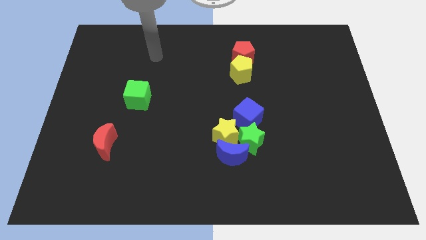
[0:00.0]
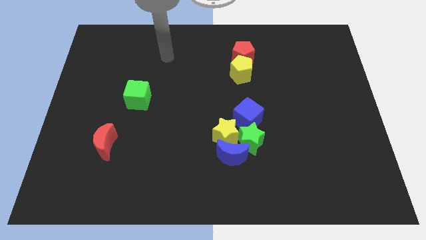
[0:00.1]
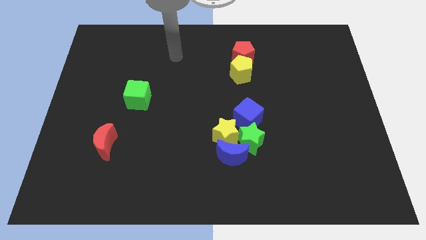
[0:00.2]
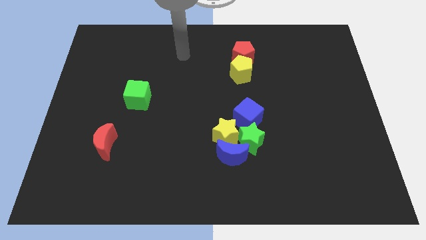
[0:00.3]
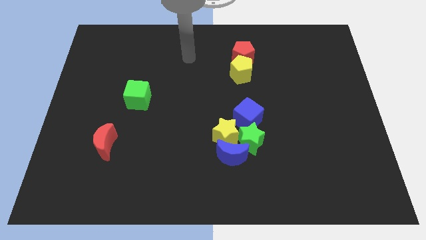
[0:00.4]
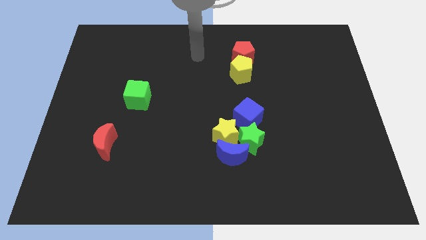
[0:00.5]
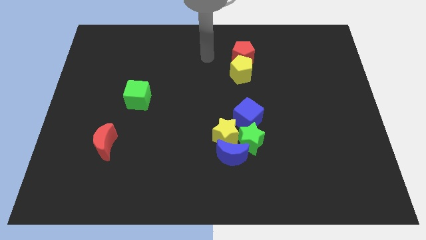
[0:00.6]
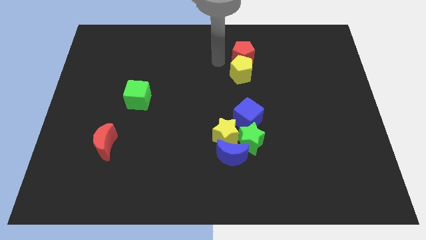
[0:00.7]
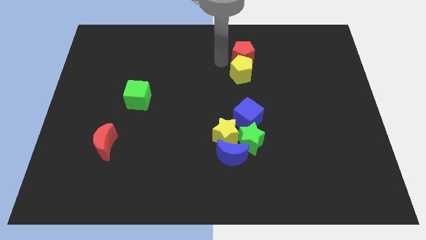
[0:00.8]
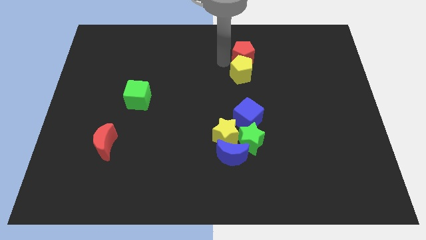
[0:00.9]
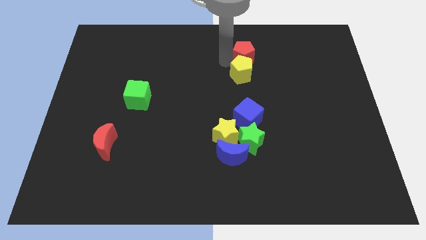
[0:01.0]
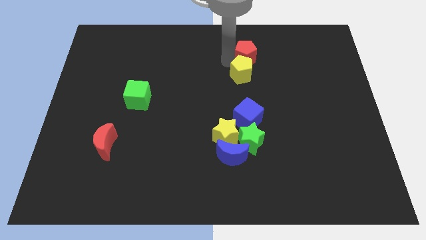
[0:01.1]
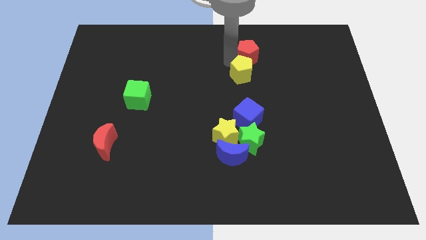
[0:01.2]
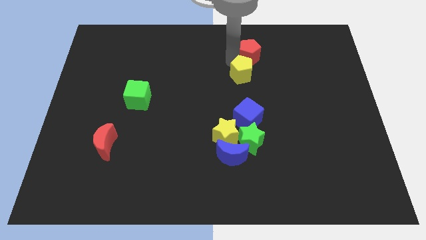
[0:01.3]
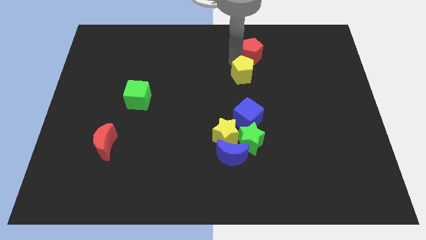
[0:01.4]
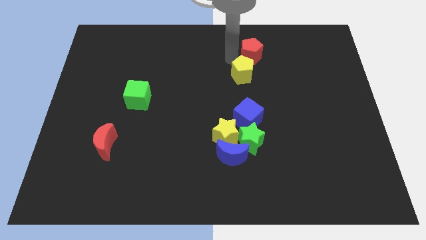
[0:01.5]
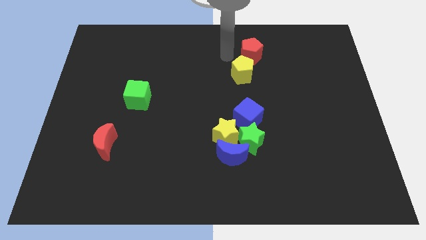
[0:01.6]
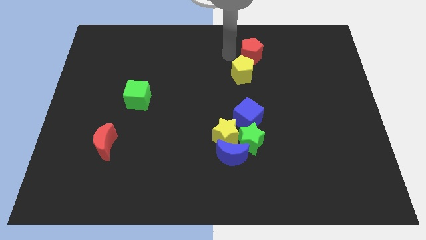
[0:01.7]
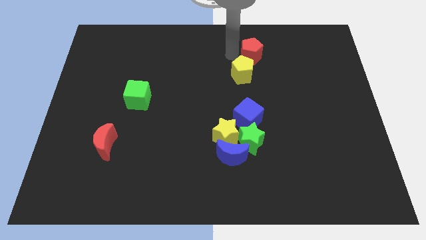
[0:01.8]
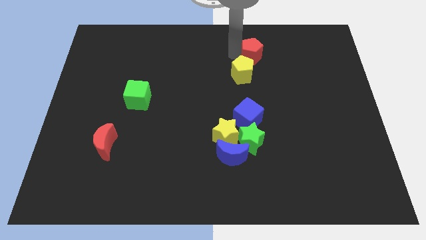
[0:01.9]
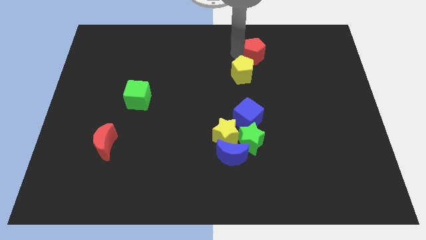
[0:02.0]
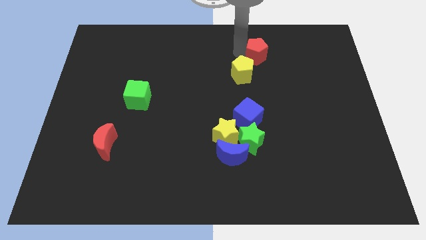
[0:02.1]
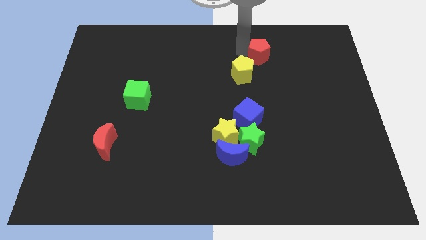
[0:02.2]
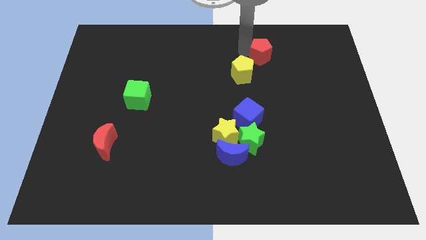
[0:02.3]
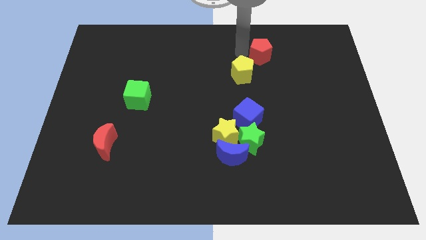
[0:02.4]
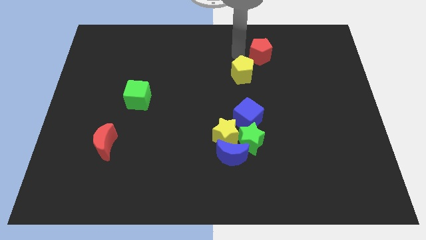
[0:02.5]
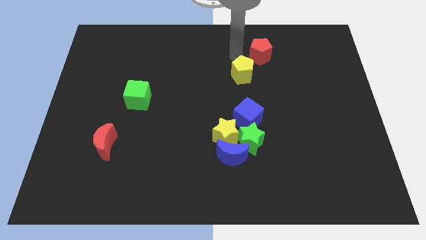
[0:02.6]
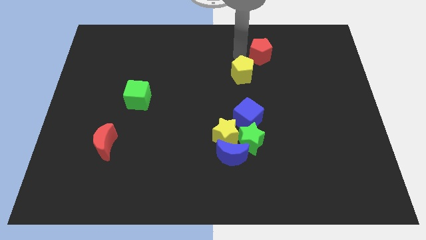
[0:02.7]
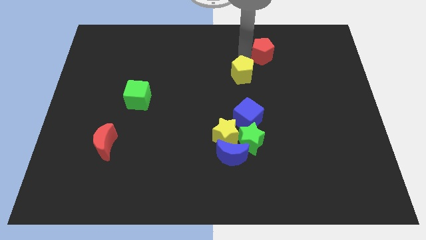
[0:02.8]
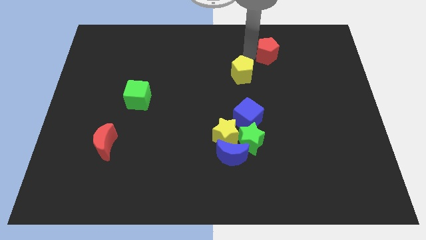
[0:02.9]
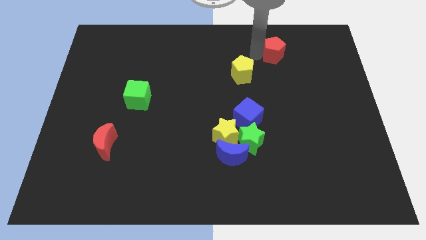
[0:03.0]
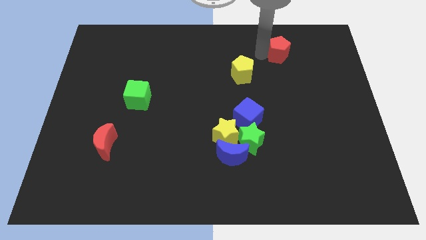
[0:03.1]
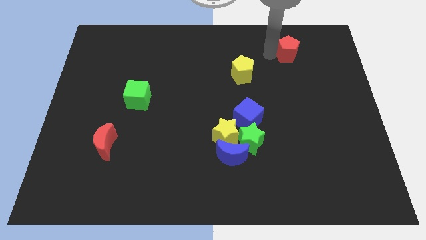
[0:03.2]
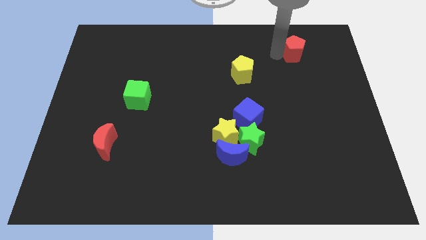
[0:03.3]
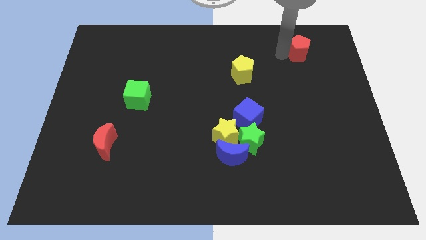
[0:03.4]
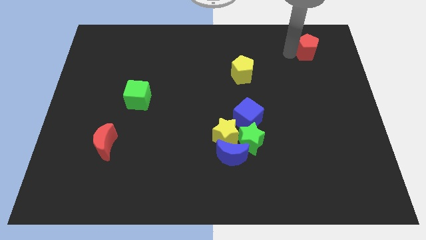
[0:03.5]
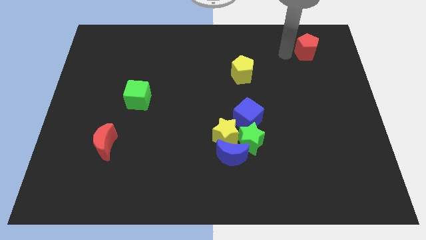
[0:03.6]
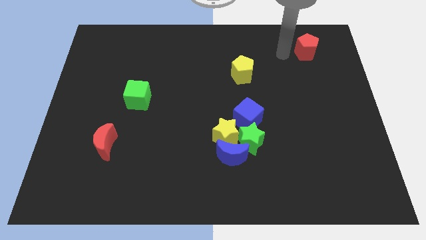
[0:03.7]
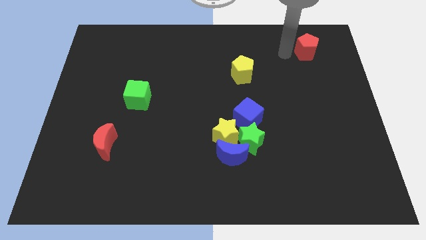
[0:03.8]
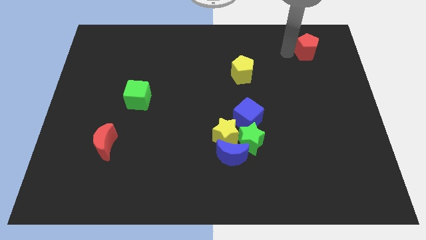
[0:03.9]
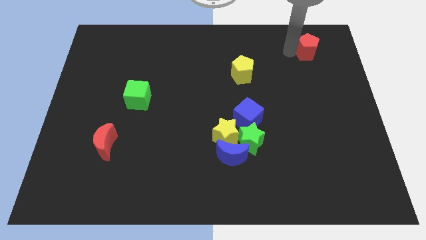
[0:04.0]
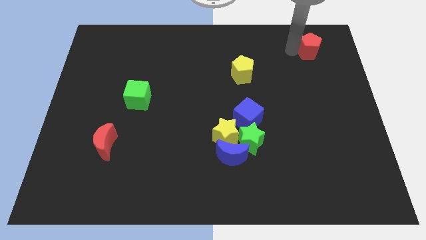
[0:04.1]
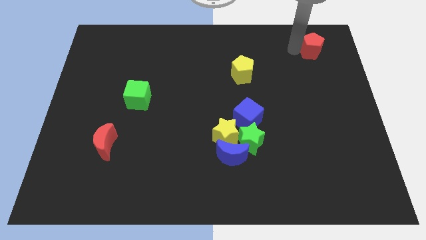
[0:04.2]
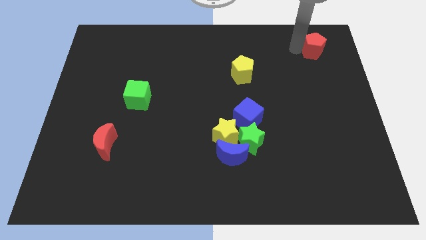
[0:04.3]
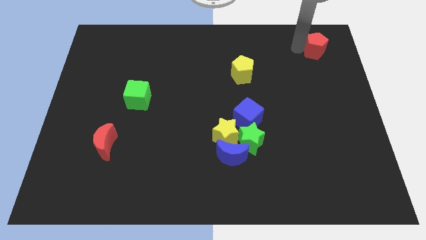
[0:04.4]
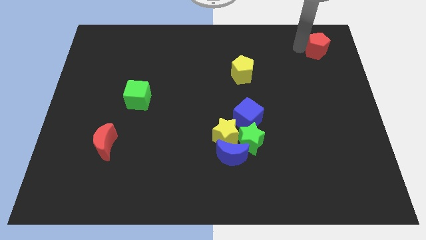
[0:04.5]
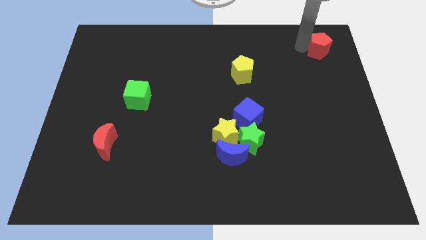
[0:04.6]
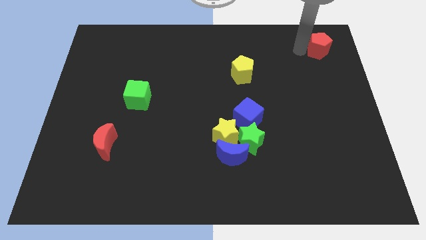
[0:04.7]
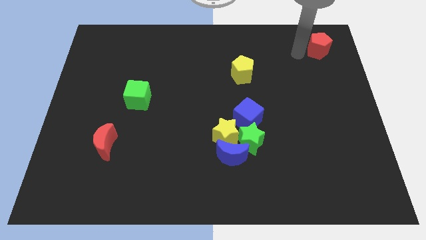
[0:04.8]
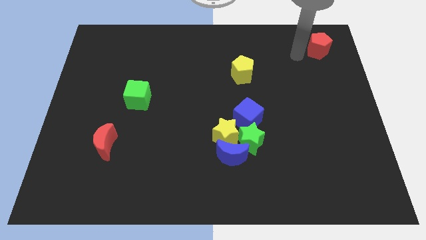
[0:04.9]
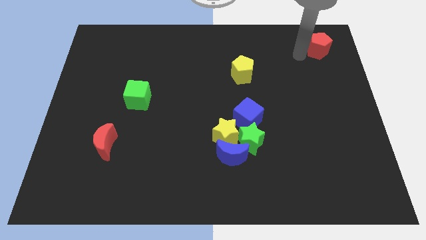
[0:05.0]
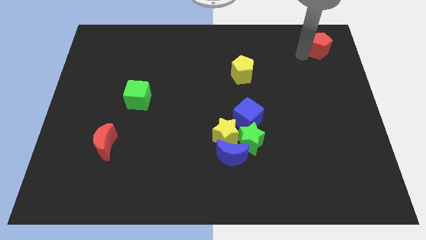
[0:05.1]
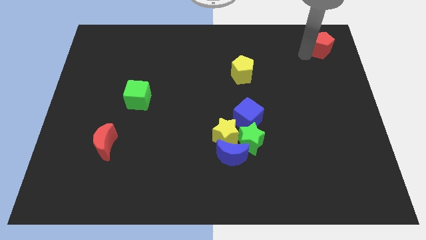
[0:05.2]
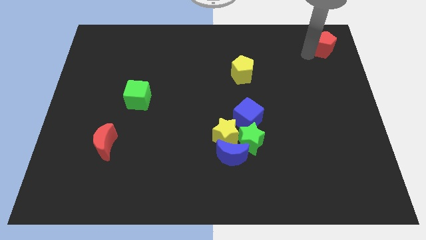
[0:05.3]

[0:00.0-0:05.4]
put the red pentagon to the upper right corner
